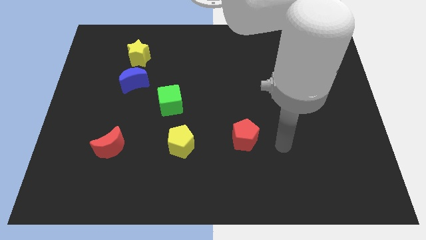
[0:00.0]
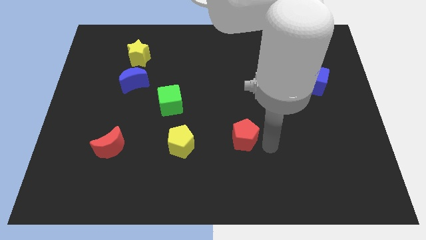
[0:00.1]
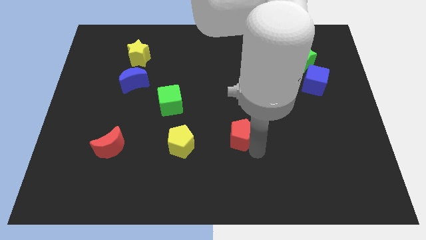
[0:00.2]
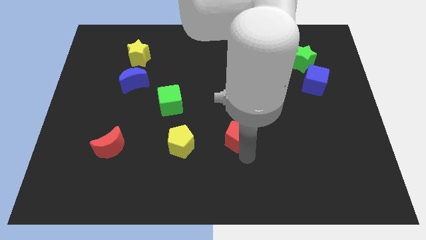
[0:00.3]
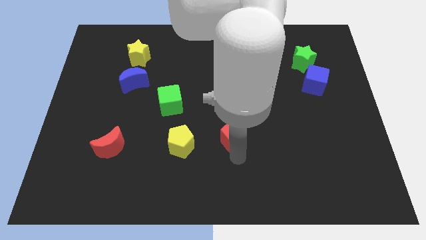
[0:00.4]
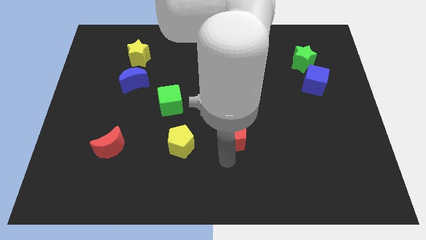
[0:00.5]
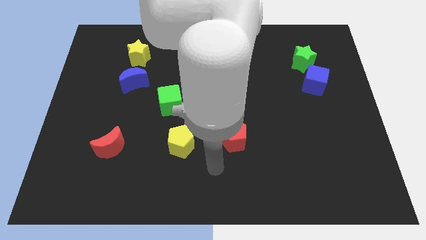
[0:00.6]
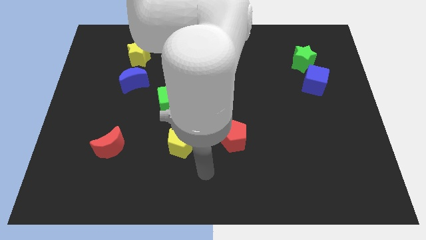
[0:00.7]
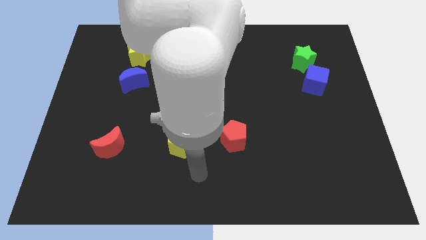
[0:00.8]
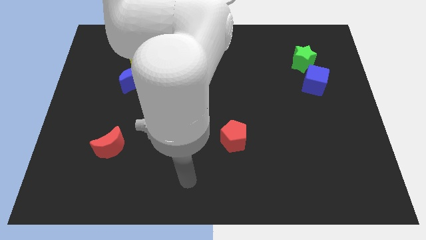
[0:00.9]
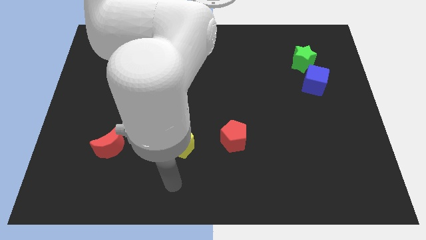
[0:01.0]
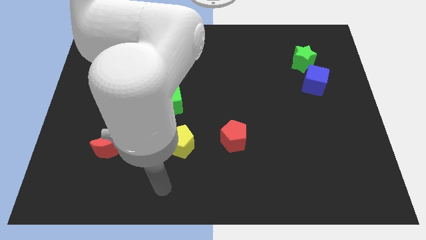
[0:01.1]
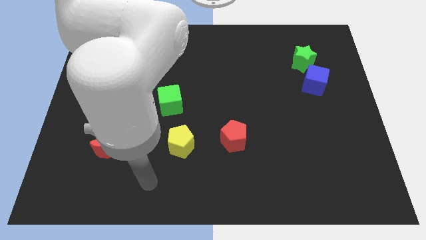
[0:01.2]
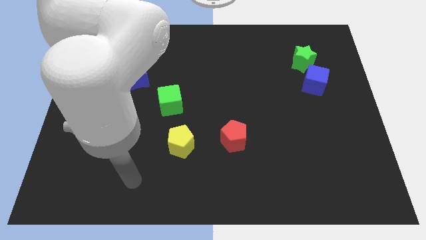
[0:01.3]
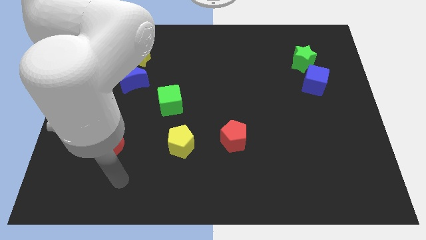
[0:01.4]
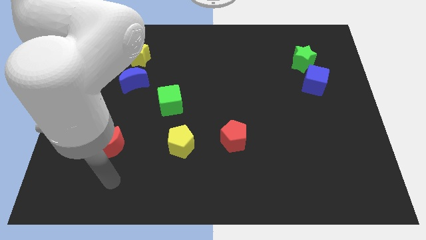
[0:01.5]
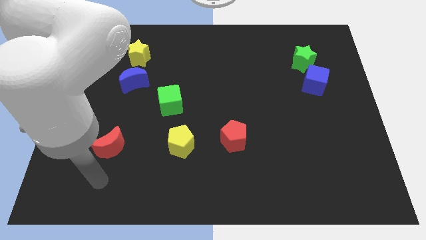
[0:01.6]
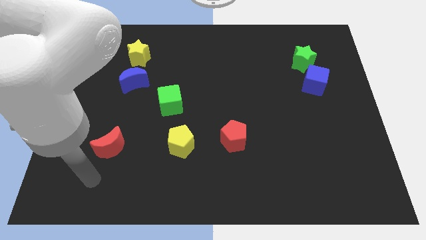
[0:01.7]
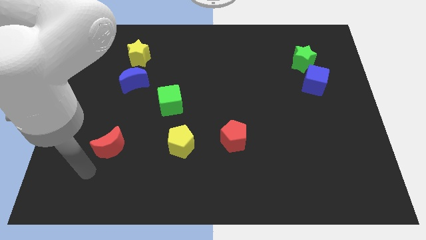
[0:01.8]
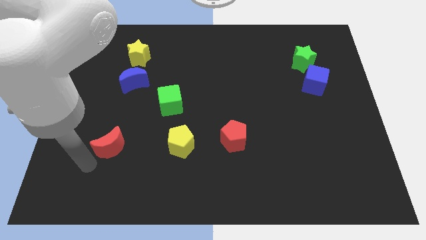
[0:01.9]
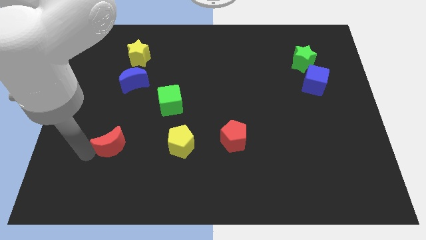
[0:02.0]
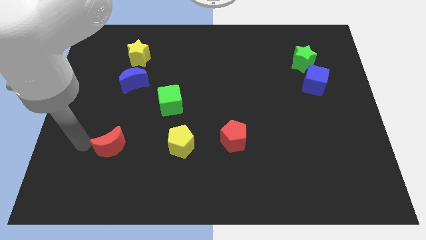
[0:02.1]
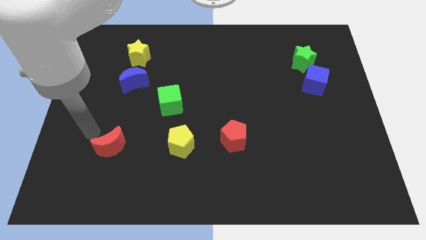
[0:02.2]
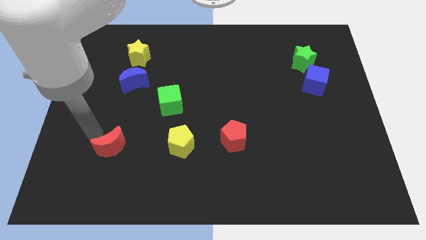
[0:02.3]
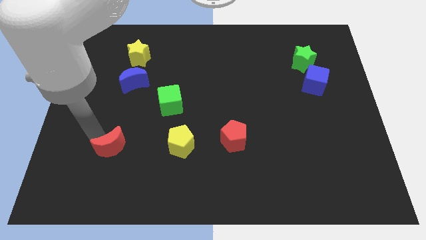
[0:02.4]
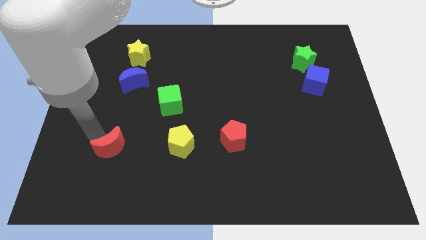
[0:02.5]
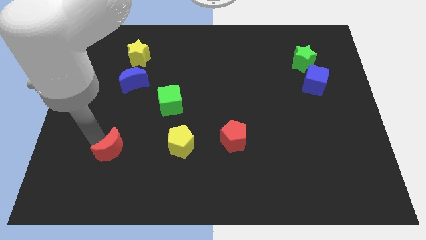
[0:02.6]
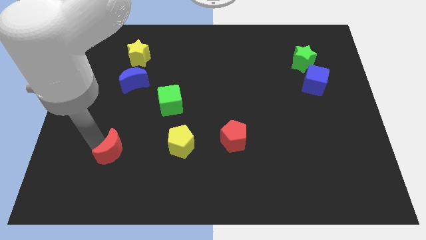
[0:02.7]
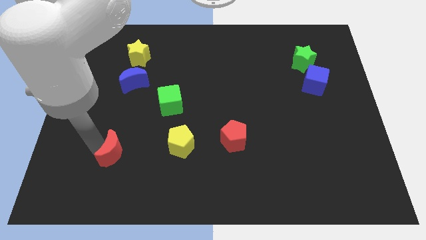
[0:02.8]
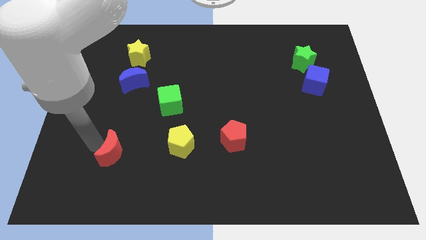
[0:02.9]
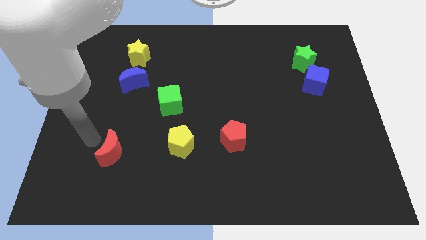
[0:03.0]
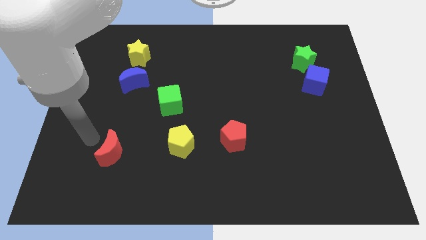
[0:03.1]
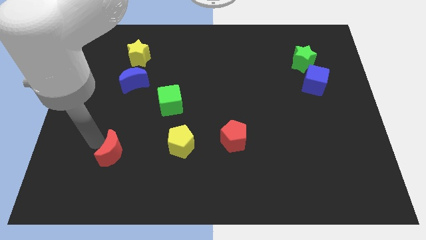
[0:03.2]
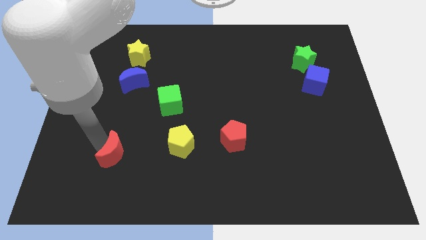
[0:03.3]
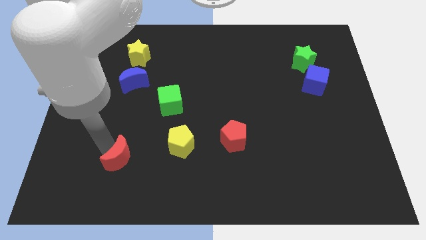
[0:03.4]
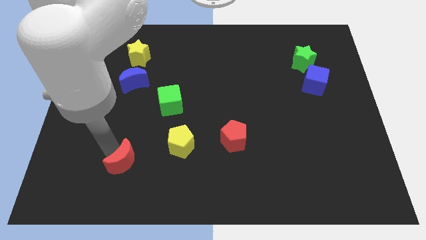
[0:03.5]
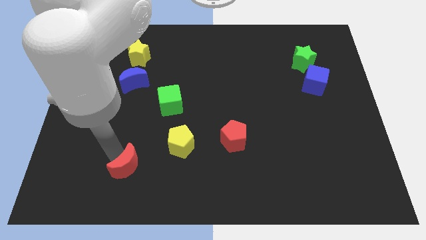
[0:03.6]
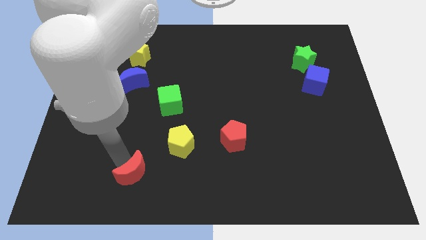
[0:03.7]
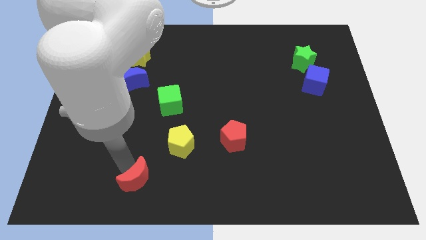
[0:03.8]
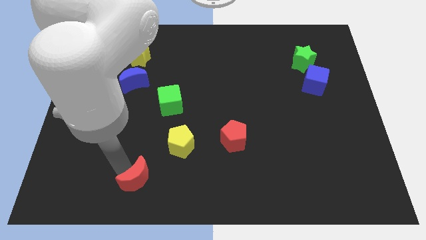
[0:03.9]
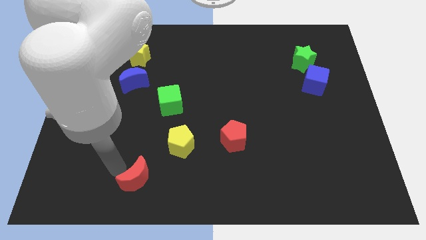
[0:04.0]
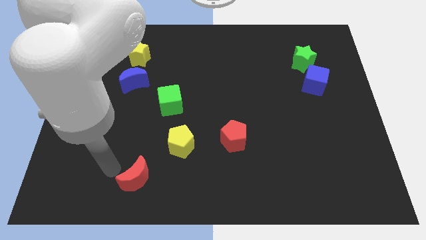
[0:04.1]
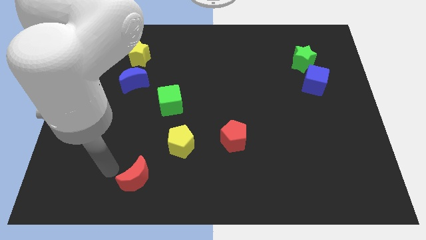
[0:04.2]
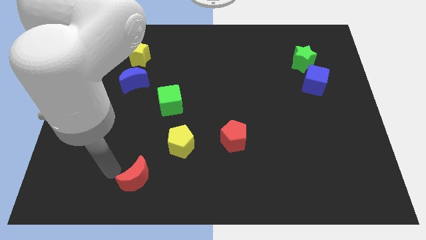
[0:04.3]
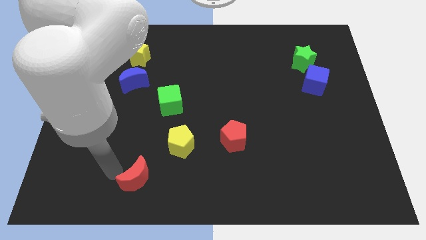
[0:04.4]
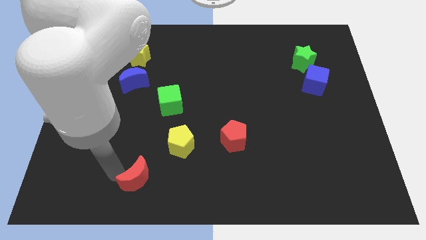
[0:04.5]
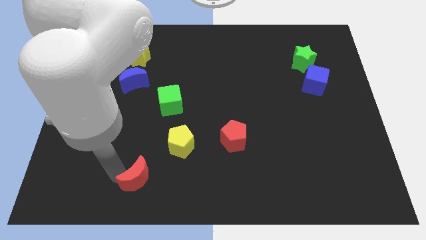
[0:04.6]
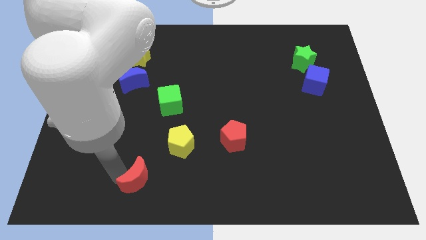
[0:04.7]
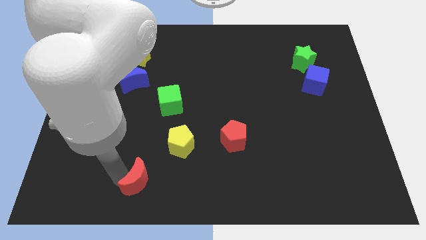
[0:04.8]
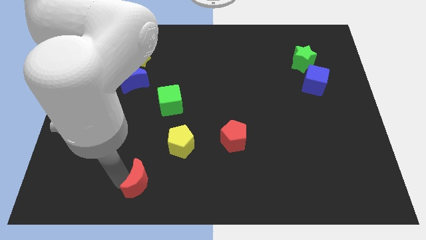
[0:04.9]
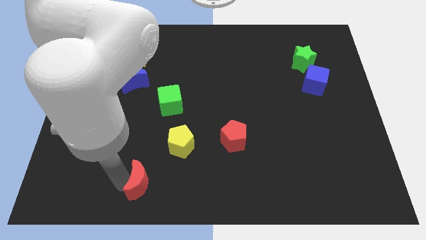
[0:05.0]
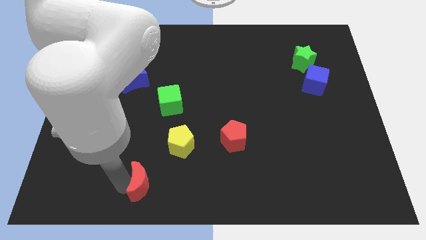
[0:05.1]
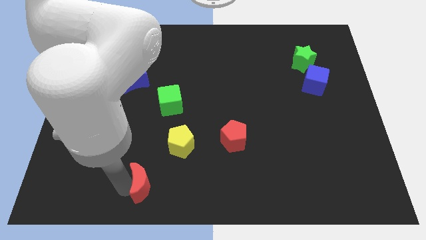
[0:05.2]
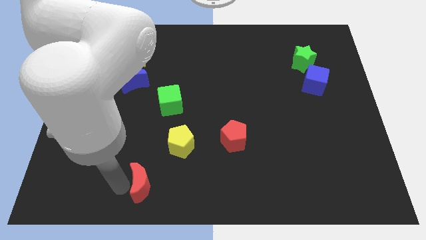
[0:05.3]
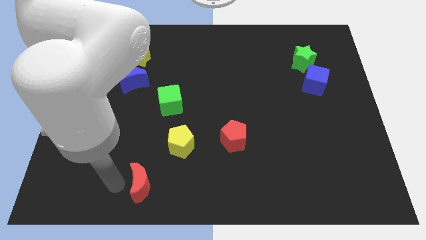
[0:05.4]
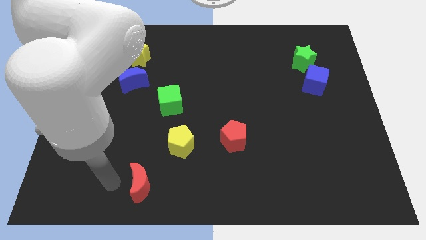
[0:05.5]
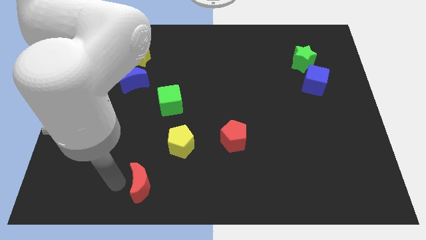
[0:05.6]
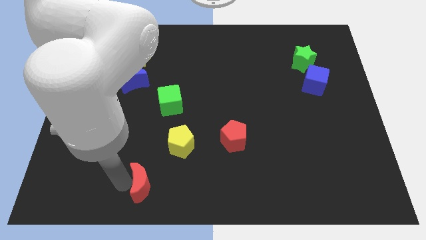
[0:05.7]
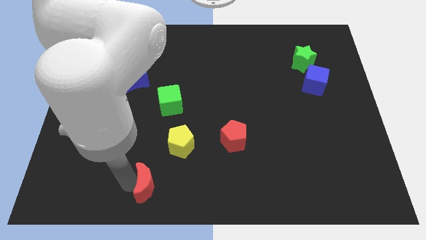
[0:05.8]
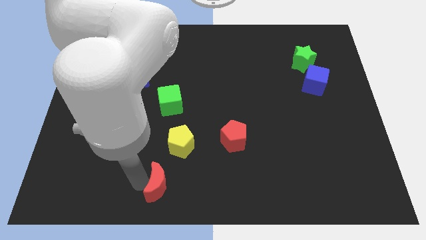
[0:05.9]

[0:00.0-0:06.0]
push the red moon to the bottom side

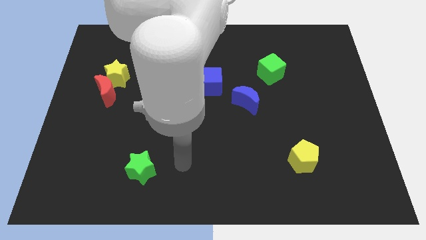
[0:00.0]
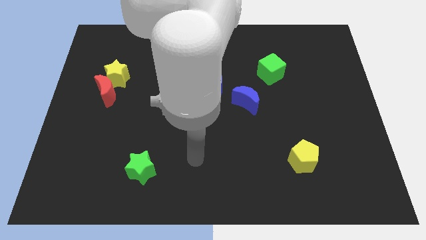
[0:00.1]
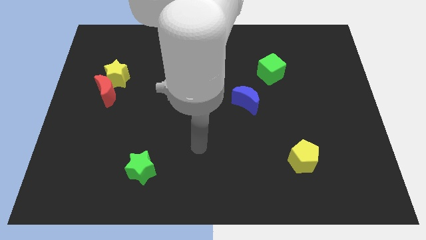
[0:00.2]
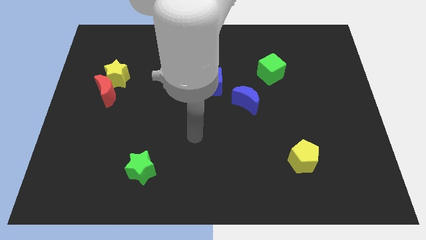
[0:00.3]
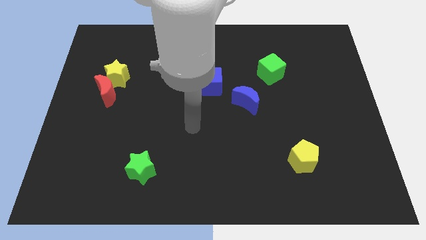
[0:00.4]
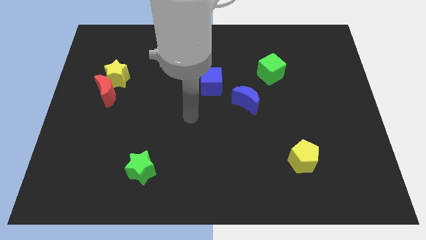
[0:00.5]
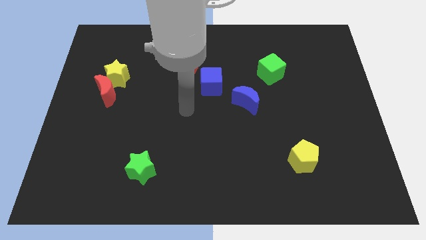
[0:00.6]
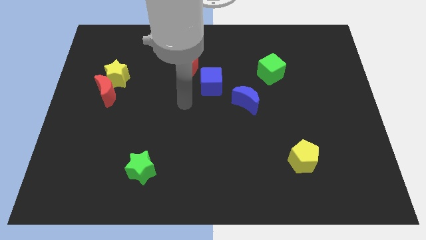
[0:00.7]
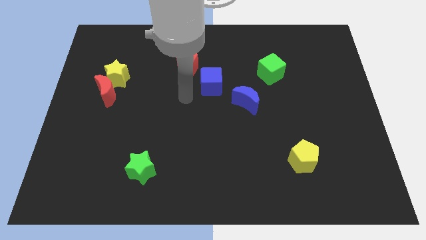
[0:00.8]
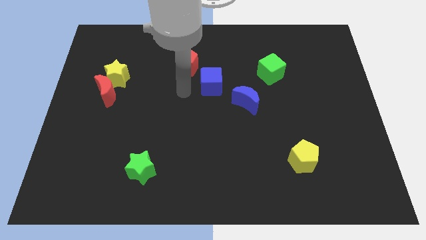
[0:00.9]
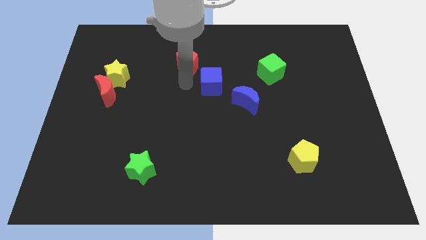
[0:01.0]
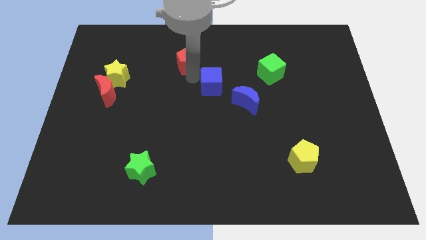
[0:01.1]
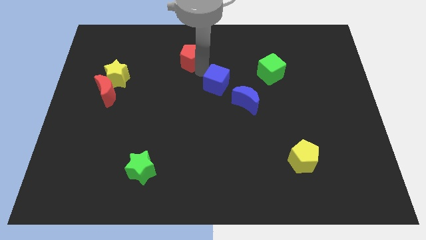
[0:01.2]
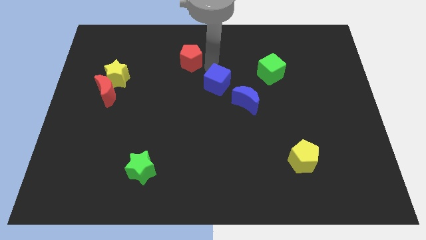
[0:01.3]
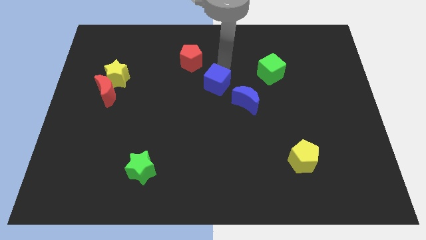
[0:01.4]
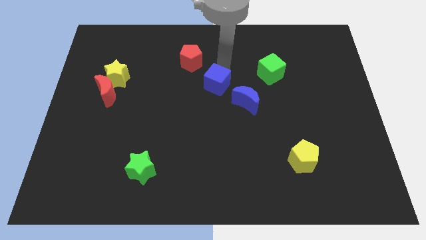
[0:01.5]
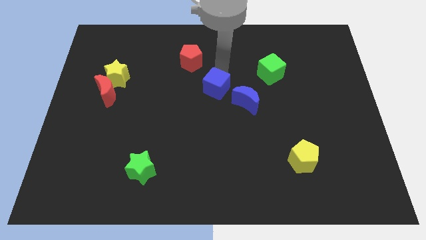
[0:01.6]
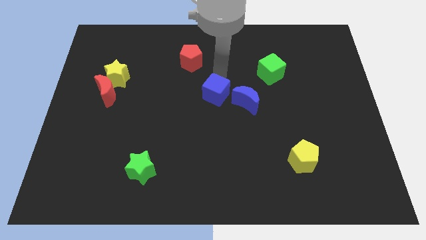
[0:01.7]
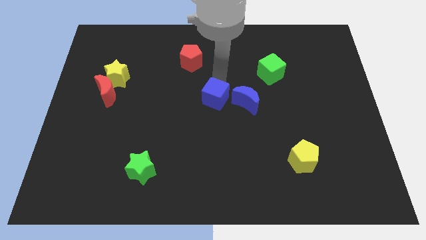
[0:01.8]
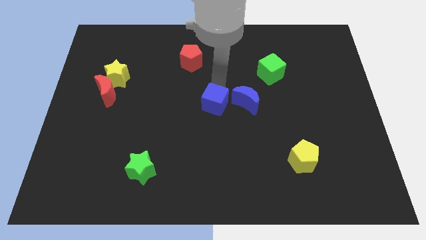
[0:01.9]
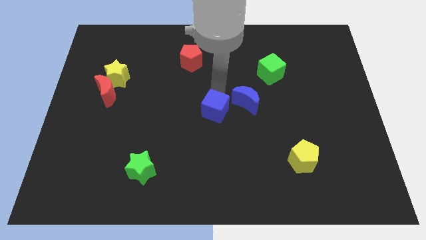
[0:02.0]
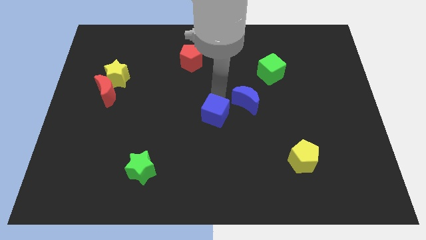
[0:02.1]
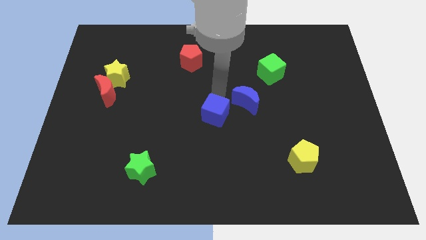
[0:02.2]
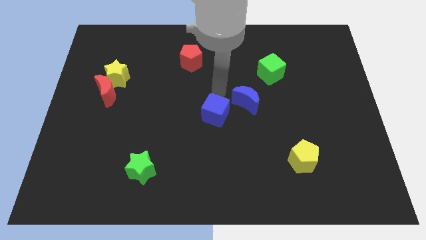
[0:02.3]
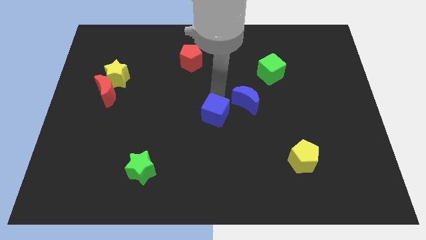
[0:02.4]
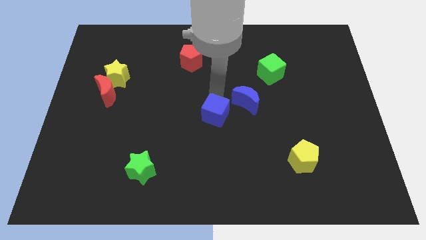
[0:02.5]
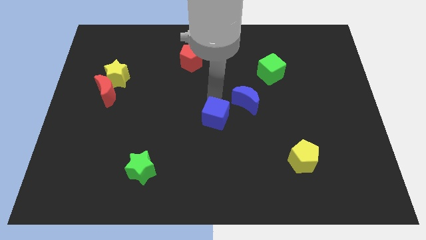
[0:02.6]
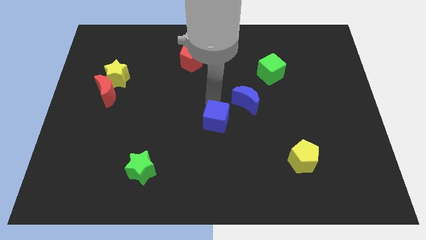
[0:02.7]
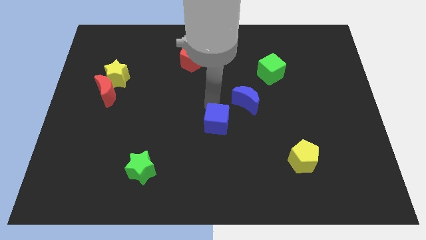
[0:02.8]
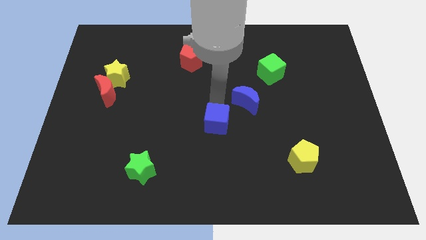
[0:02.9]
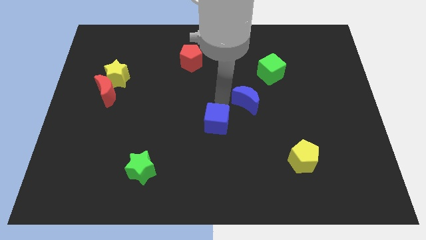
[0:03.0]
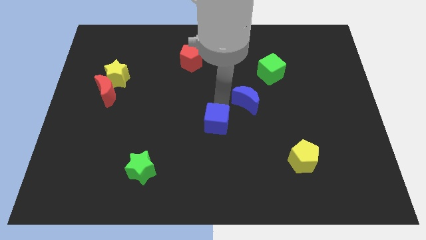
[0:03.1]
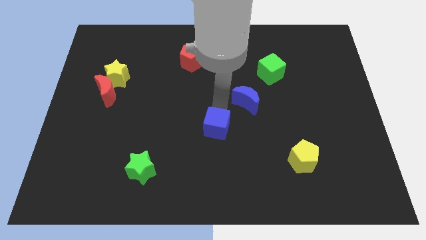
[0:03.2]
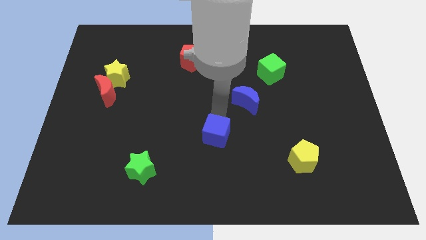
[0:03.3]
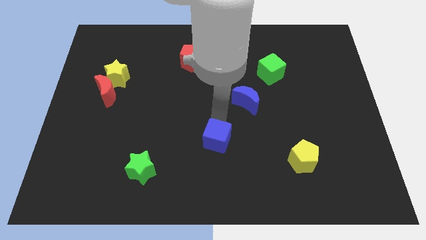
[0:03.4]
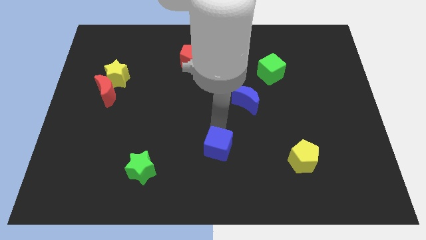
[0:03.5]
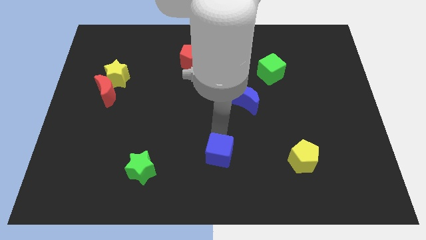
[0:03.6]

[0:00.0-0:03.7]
move the blue cube to the bottom
